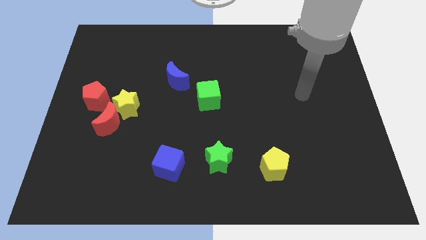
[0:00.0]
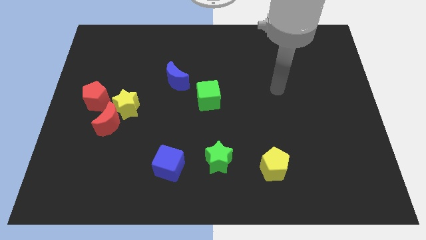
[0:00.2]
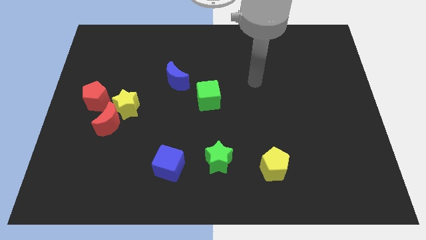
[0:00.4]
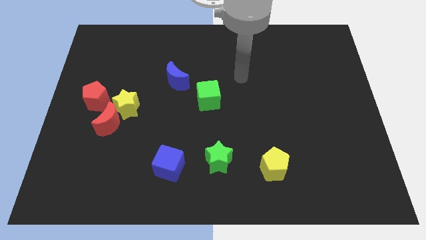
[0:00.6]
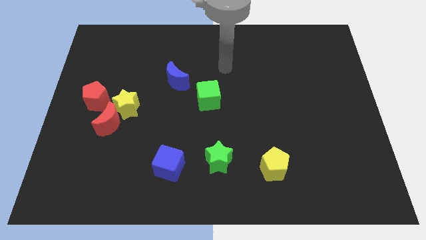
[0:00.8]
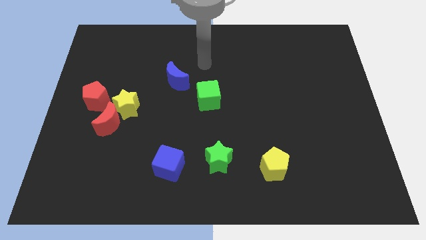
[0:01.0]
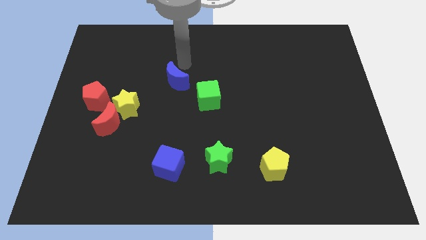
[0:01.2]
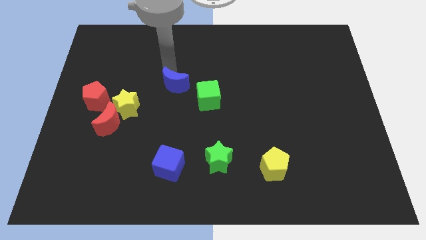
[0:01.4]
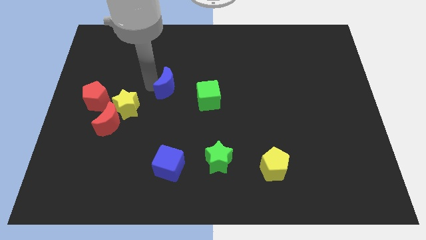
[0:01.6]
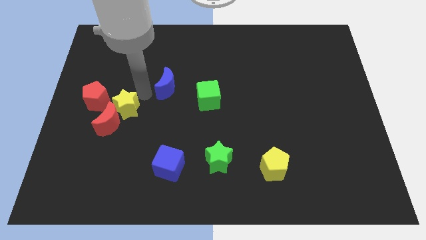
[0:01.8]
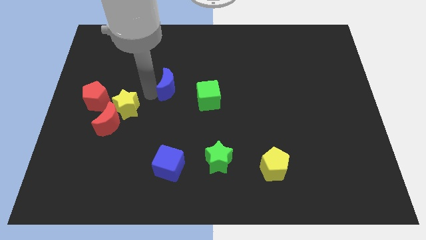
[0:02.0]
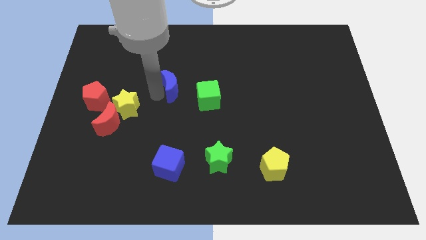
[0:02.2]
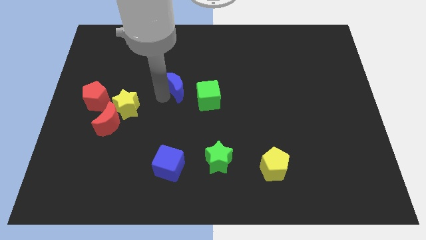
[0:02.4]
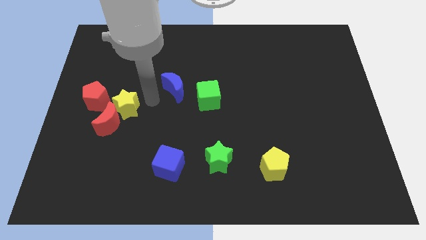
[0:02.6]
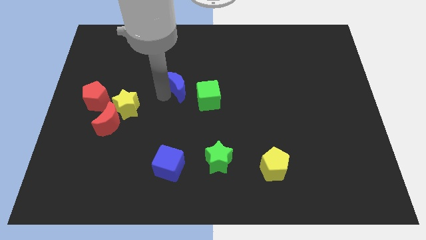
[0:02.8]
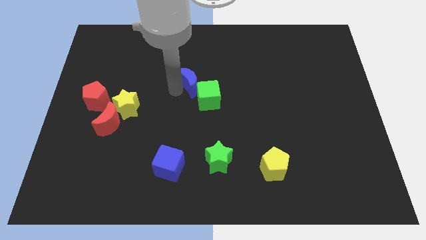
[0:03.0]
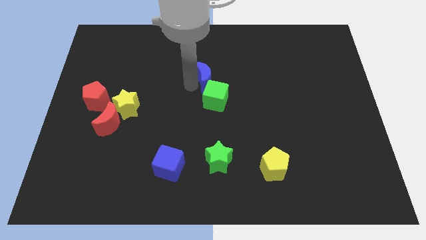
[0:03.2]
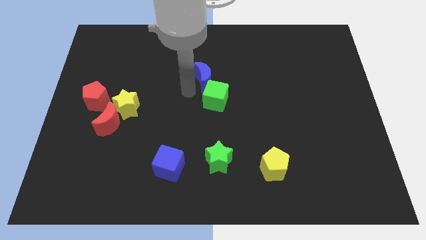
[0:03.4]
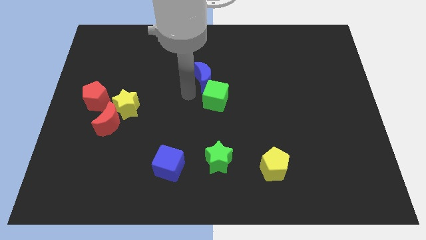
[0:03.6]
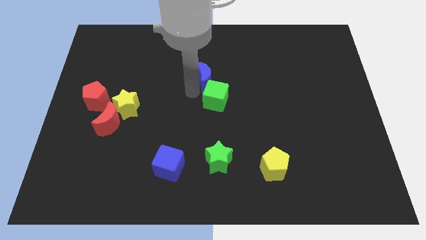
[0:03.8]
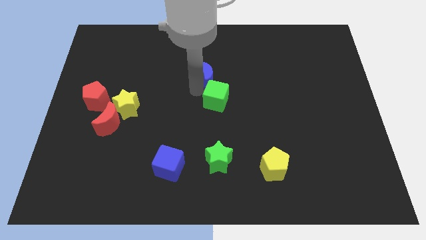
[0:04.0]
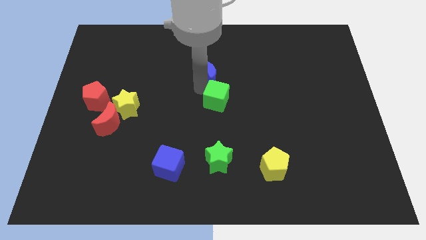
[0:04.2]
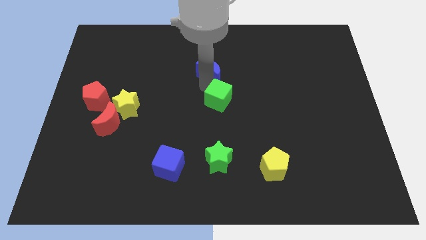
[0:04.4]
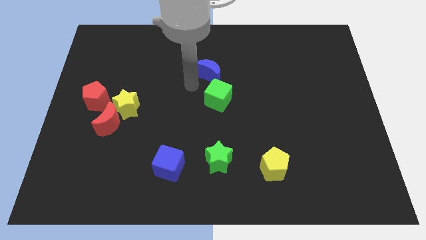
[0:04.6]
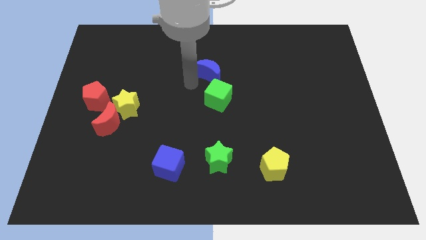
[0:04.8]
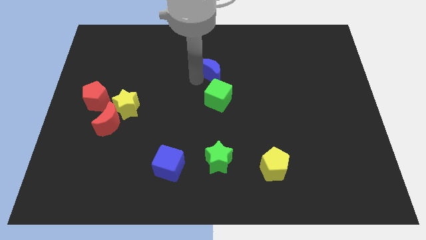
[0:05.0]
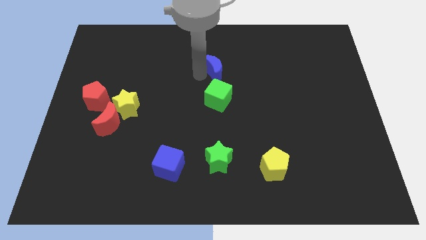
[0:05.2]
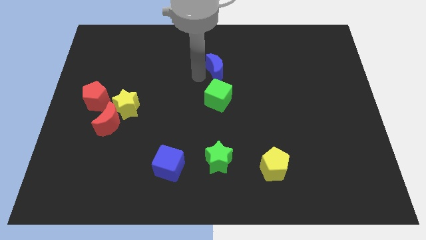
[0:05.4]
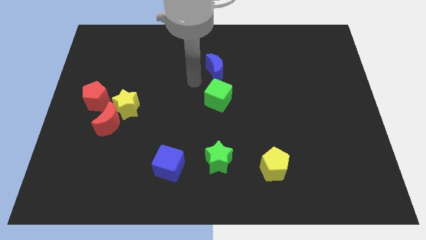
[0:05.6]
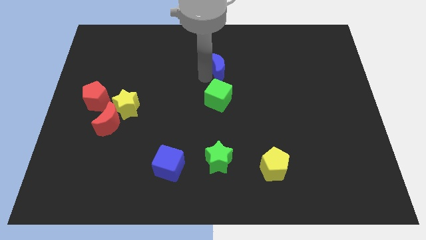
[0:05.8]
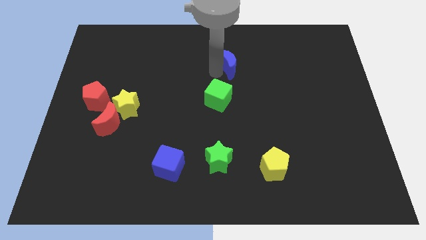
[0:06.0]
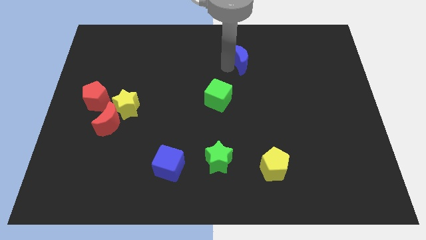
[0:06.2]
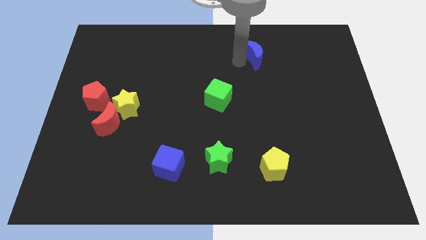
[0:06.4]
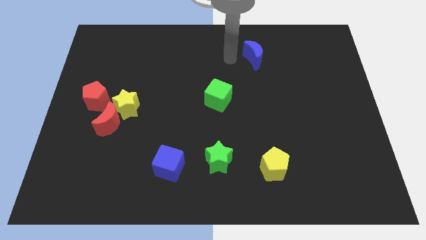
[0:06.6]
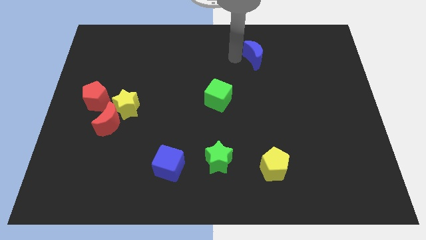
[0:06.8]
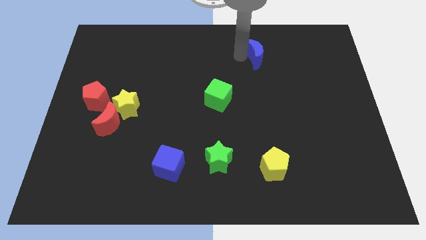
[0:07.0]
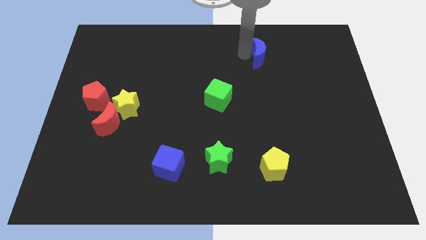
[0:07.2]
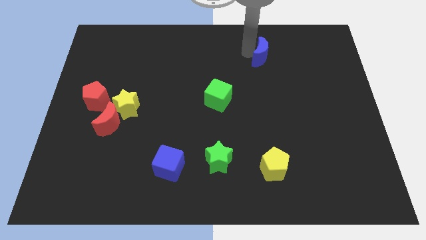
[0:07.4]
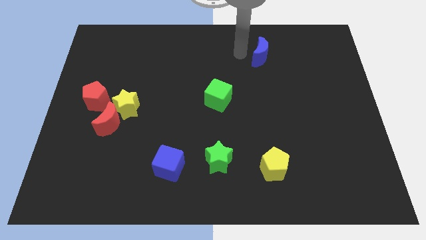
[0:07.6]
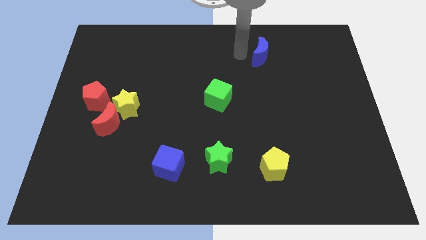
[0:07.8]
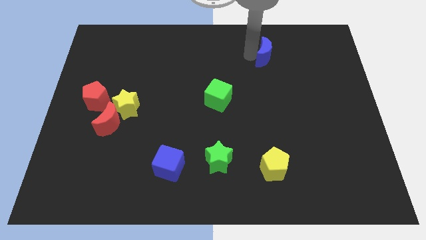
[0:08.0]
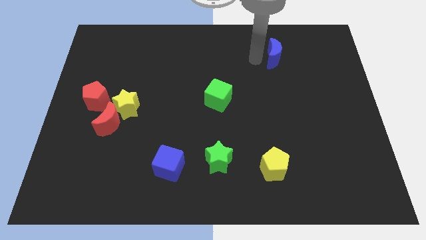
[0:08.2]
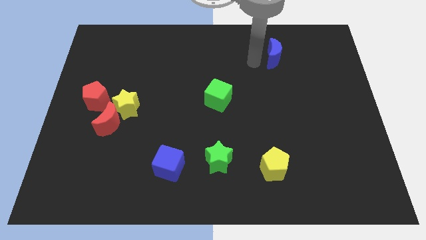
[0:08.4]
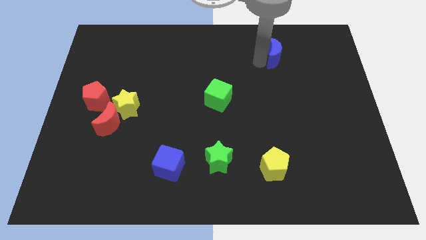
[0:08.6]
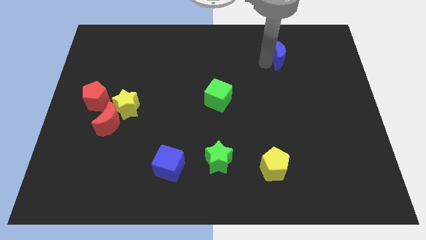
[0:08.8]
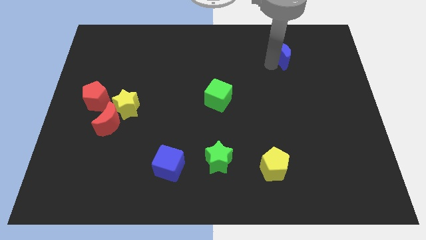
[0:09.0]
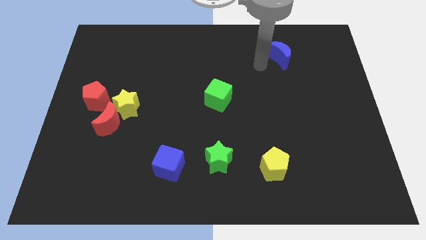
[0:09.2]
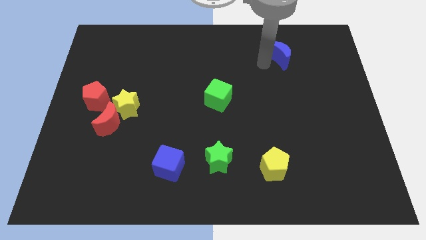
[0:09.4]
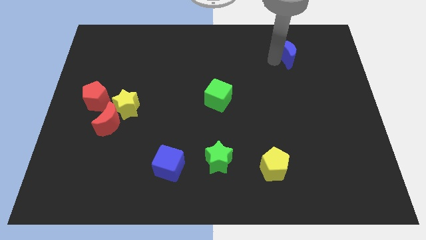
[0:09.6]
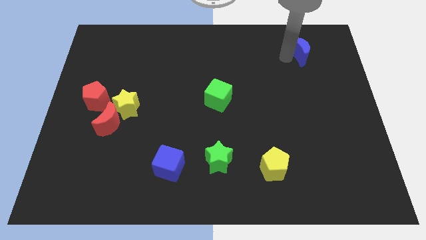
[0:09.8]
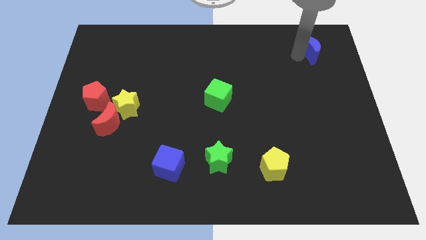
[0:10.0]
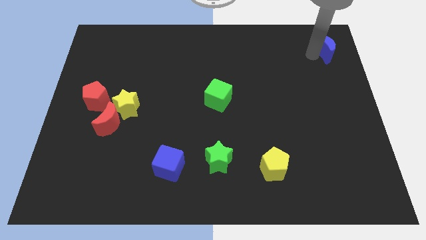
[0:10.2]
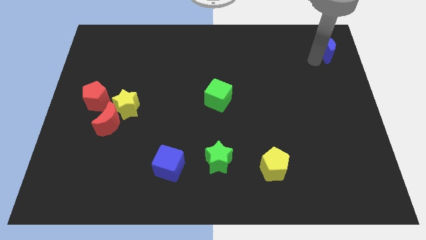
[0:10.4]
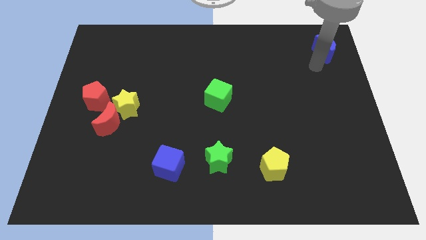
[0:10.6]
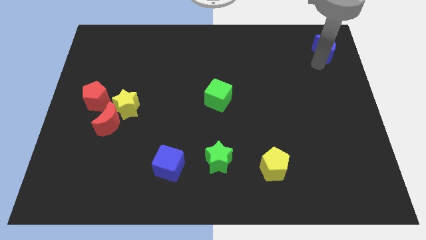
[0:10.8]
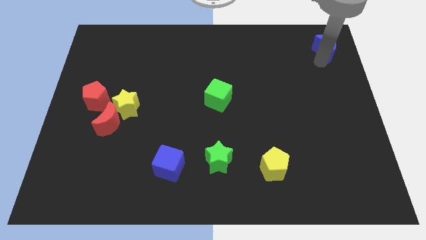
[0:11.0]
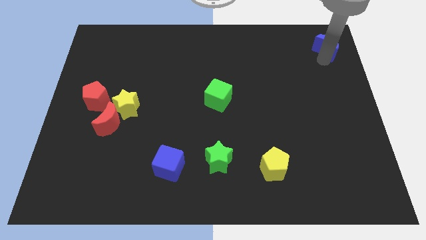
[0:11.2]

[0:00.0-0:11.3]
push the blue moon to the top right of the board

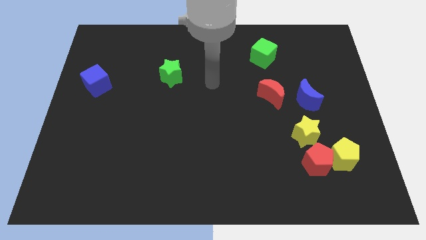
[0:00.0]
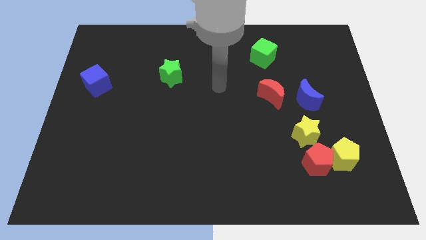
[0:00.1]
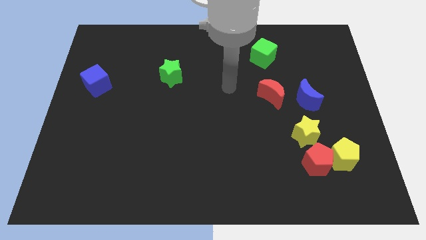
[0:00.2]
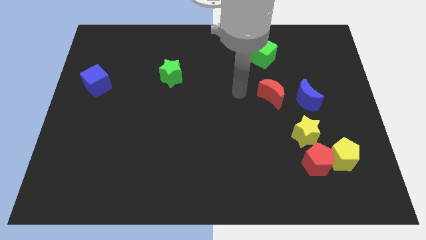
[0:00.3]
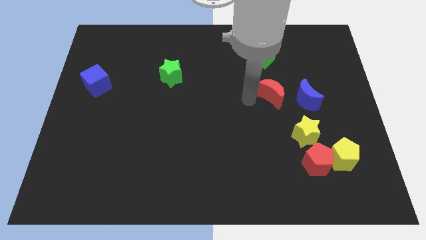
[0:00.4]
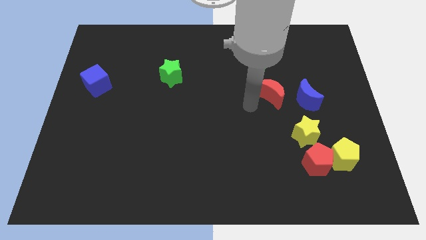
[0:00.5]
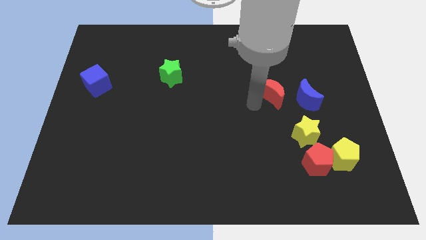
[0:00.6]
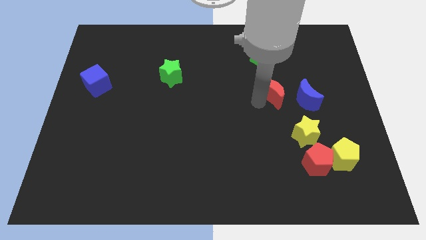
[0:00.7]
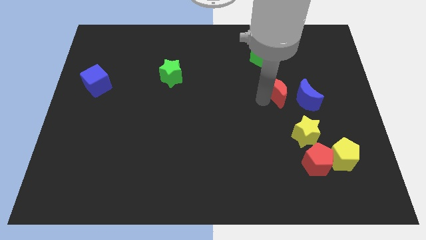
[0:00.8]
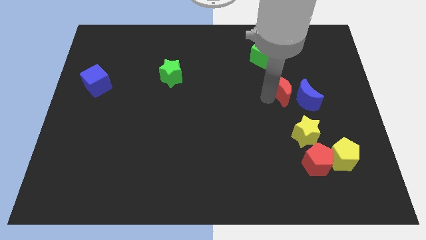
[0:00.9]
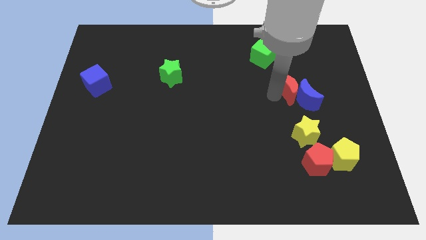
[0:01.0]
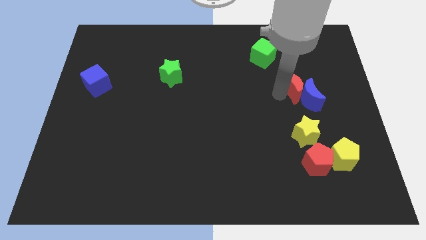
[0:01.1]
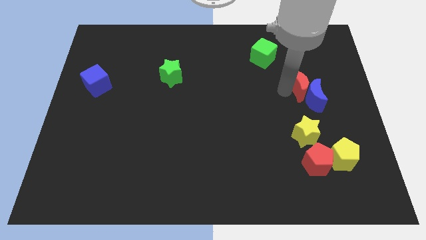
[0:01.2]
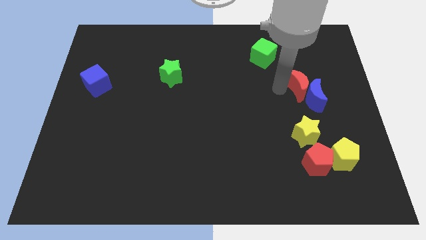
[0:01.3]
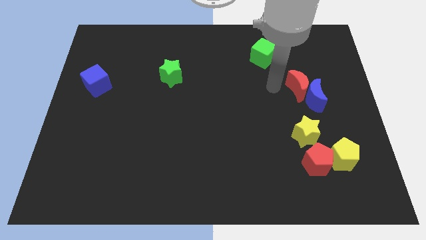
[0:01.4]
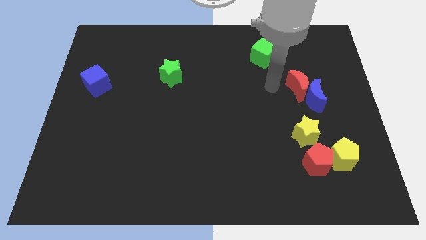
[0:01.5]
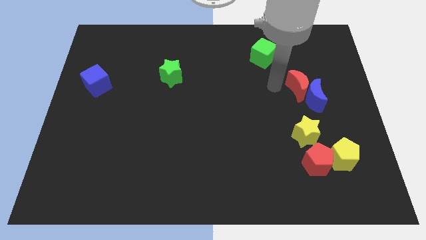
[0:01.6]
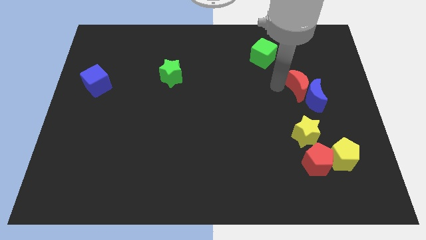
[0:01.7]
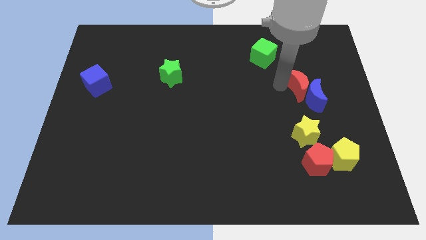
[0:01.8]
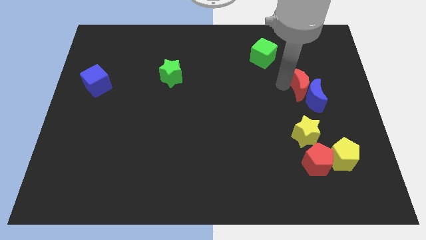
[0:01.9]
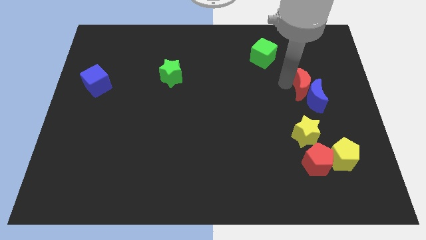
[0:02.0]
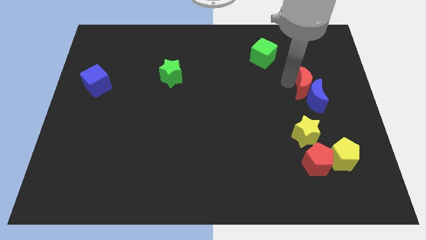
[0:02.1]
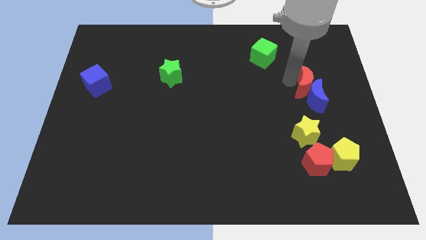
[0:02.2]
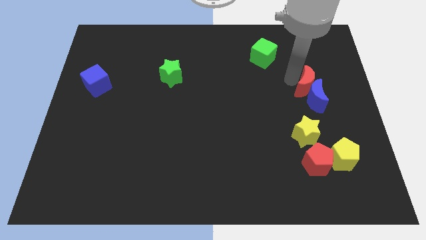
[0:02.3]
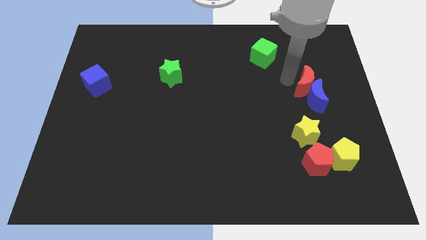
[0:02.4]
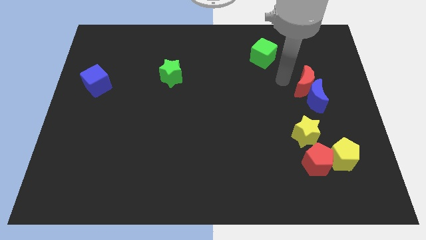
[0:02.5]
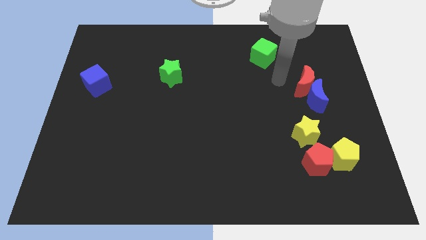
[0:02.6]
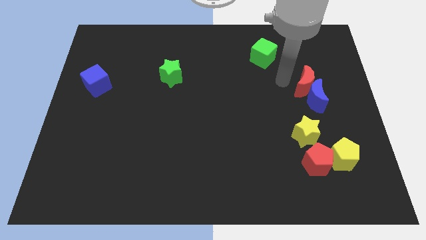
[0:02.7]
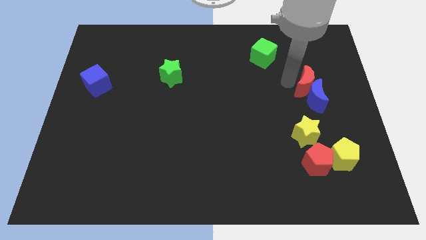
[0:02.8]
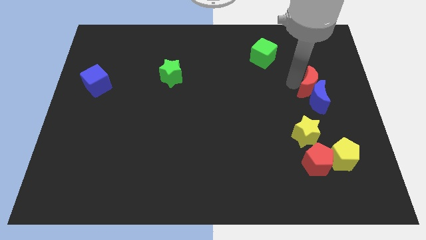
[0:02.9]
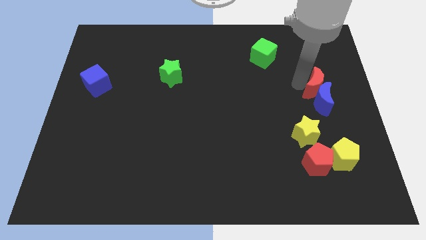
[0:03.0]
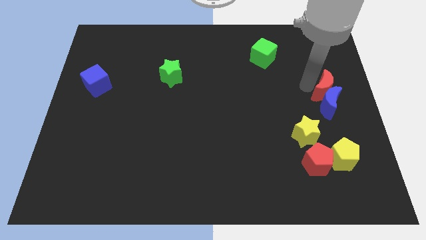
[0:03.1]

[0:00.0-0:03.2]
put the red moon to the right side
